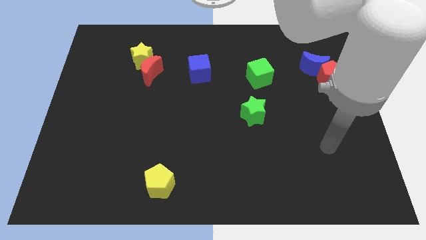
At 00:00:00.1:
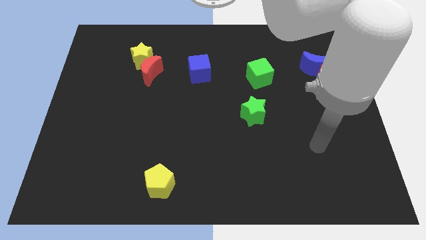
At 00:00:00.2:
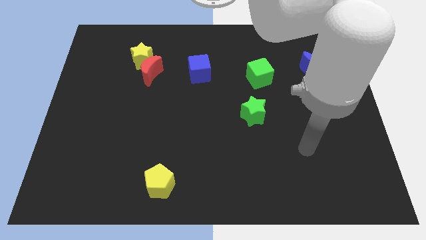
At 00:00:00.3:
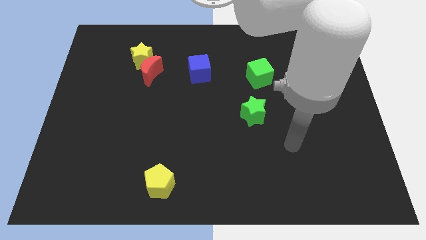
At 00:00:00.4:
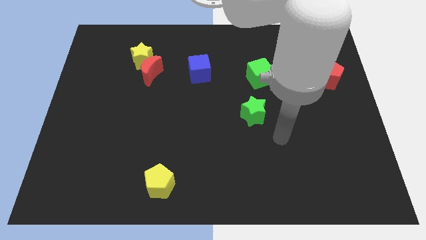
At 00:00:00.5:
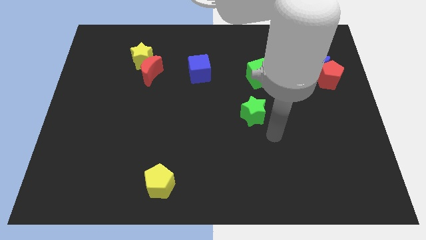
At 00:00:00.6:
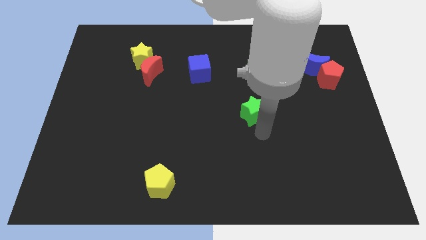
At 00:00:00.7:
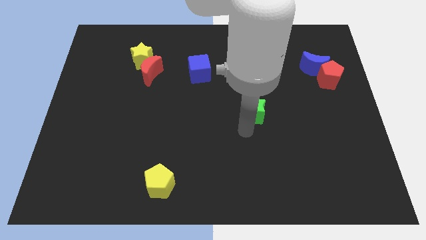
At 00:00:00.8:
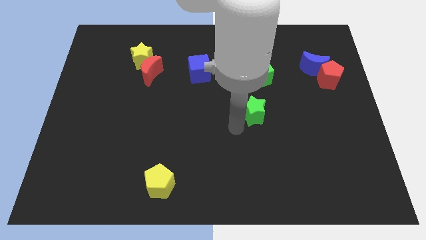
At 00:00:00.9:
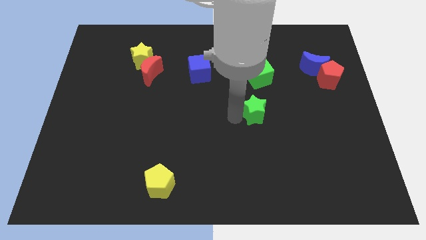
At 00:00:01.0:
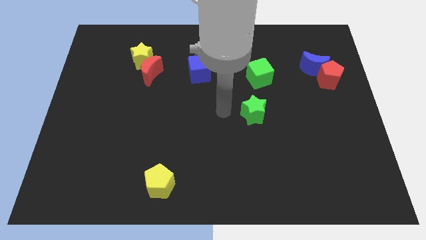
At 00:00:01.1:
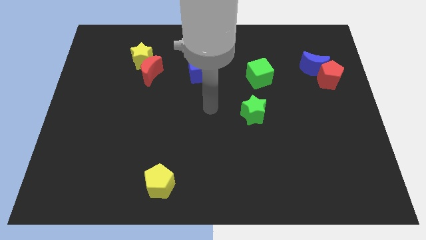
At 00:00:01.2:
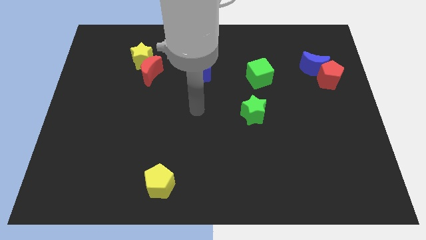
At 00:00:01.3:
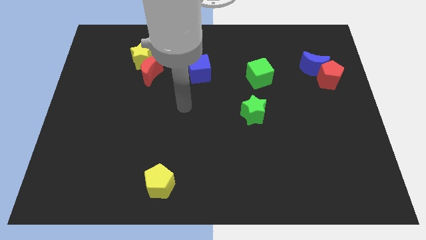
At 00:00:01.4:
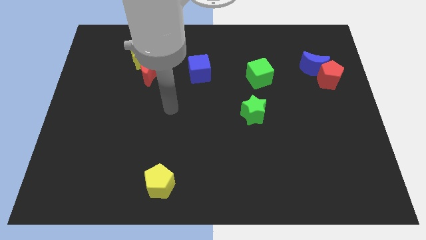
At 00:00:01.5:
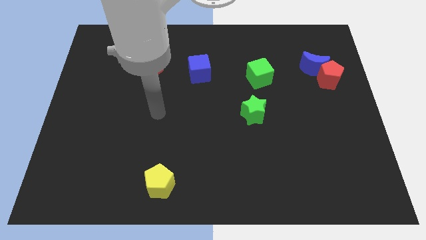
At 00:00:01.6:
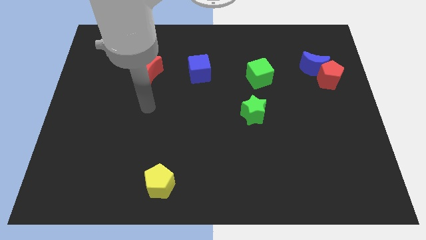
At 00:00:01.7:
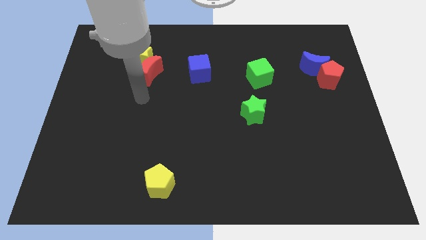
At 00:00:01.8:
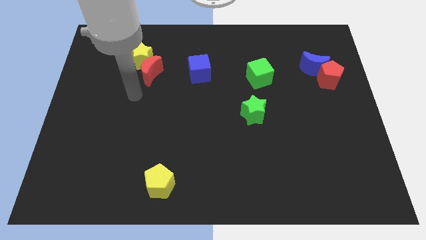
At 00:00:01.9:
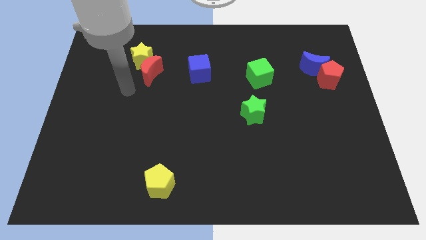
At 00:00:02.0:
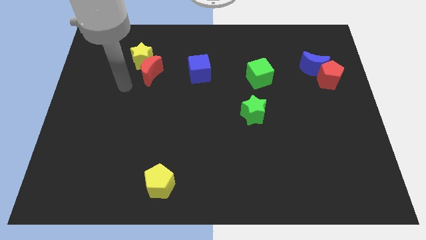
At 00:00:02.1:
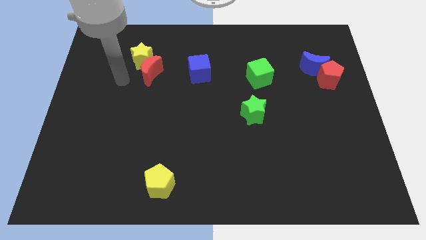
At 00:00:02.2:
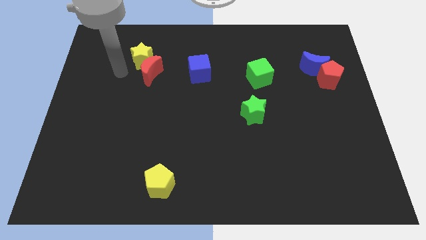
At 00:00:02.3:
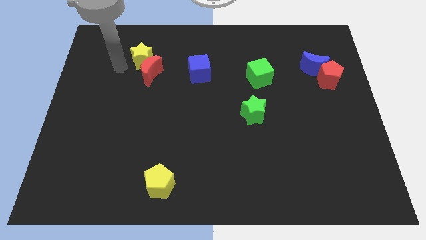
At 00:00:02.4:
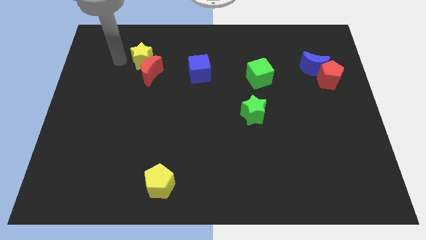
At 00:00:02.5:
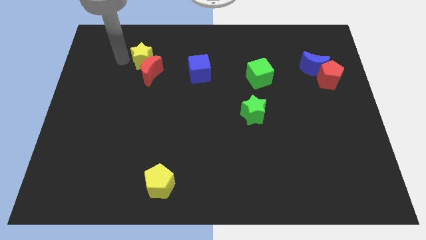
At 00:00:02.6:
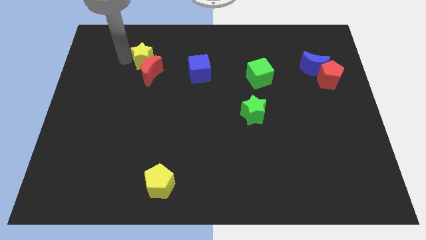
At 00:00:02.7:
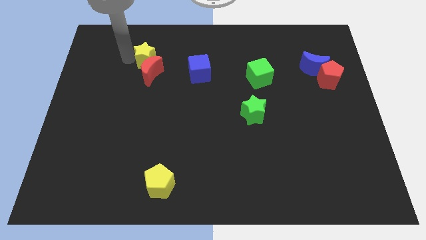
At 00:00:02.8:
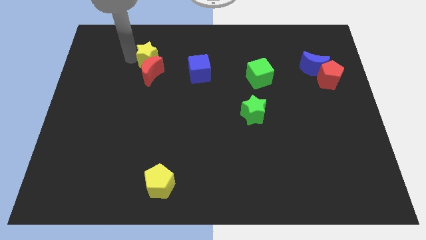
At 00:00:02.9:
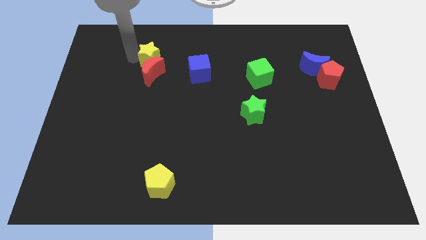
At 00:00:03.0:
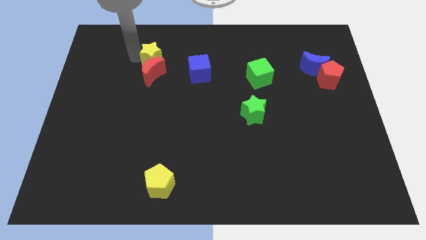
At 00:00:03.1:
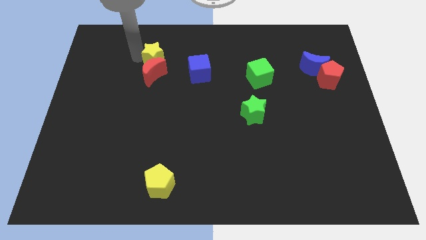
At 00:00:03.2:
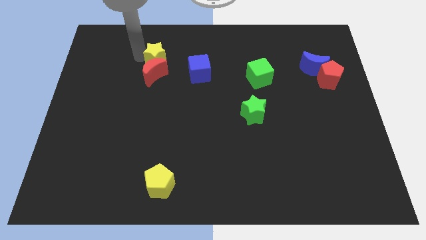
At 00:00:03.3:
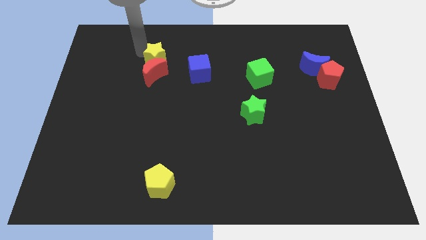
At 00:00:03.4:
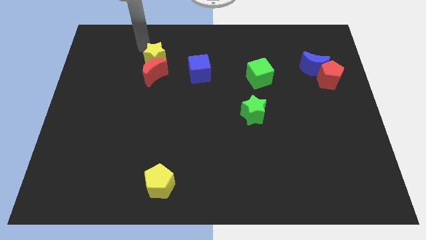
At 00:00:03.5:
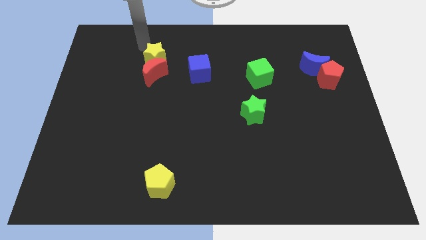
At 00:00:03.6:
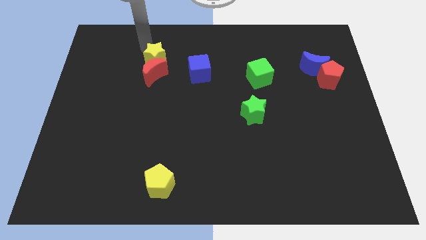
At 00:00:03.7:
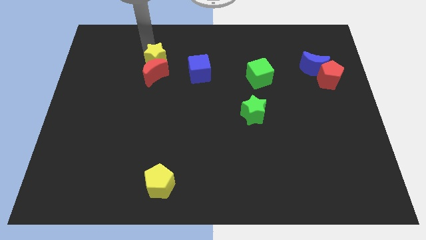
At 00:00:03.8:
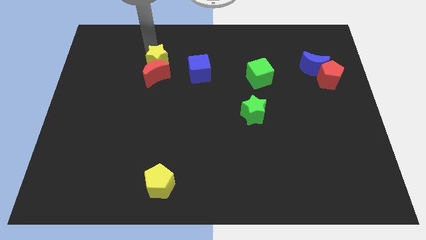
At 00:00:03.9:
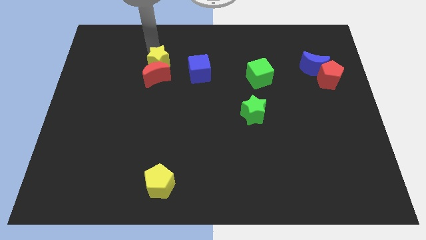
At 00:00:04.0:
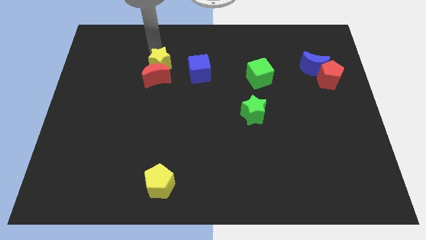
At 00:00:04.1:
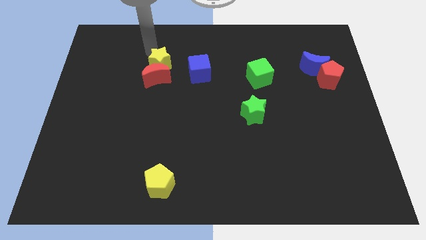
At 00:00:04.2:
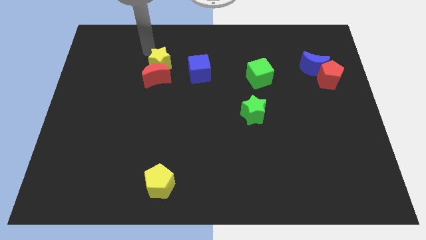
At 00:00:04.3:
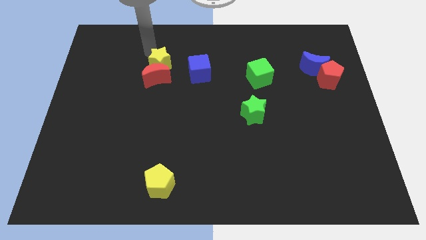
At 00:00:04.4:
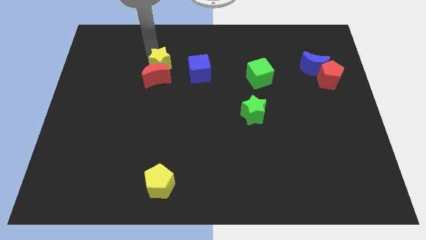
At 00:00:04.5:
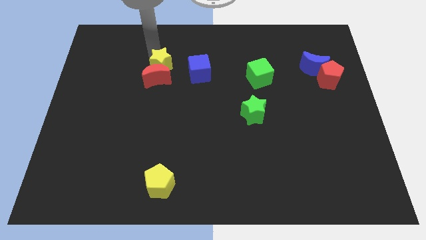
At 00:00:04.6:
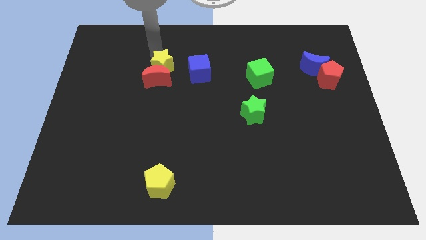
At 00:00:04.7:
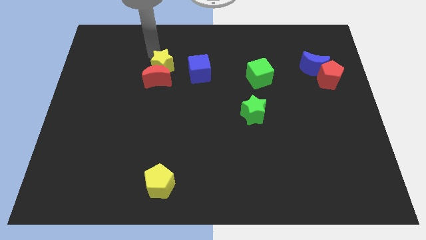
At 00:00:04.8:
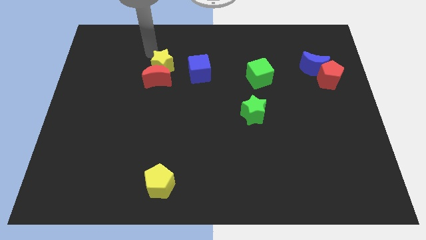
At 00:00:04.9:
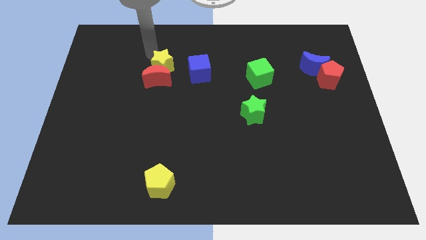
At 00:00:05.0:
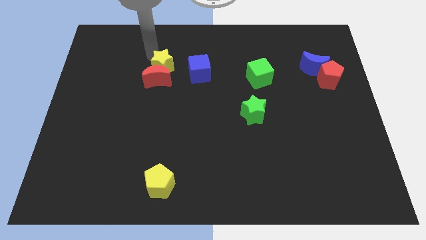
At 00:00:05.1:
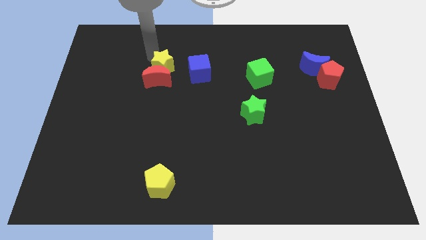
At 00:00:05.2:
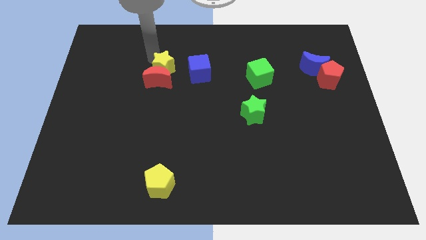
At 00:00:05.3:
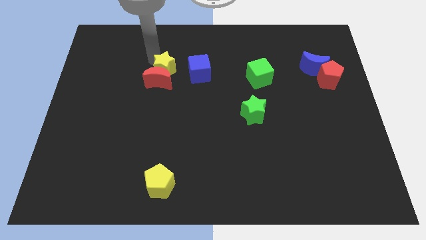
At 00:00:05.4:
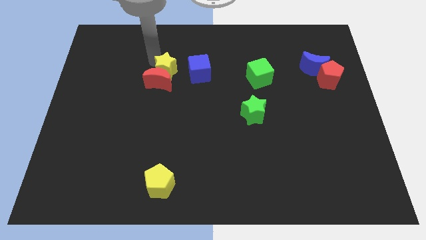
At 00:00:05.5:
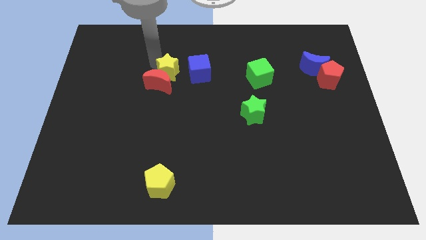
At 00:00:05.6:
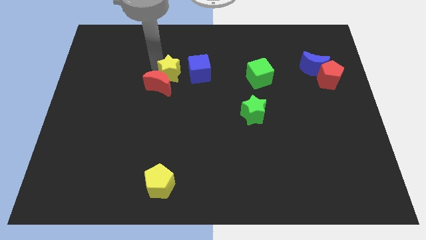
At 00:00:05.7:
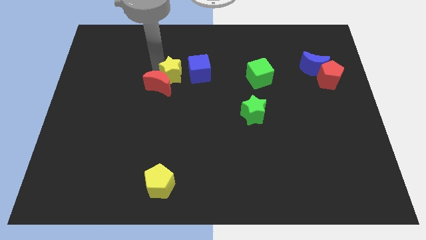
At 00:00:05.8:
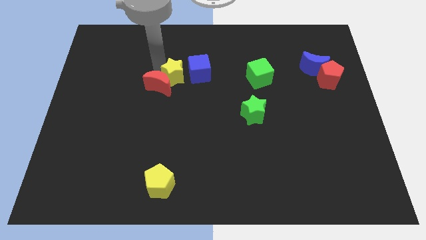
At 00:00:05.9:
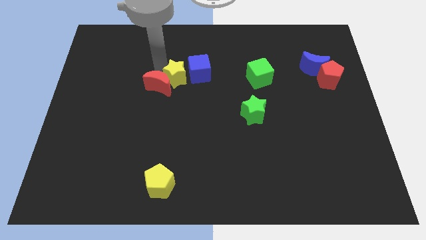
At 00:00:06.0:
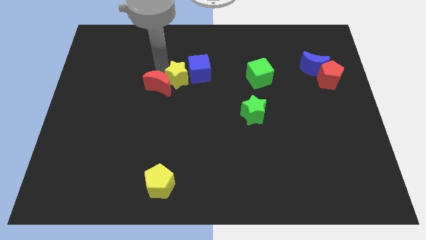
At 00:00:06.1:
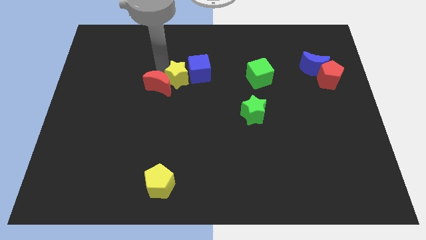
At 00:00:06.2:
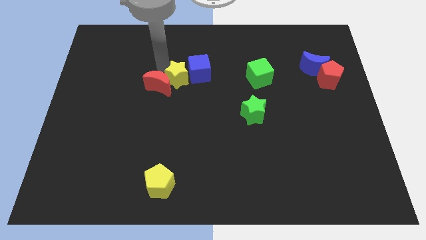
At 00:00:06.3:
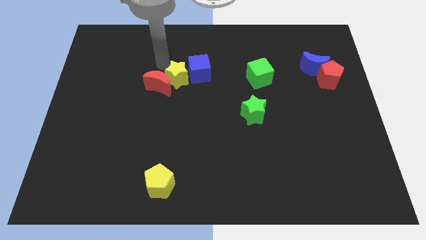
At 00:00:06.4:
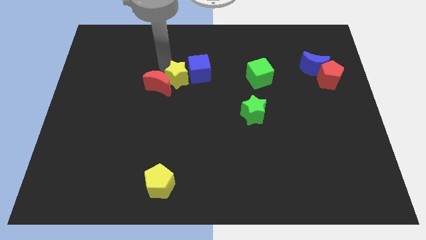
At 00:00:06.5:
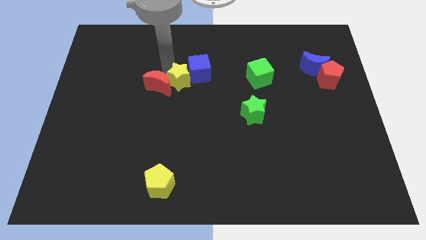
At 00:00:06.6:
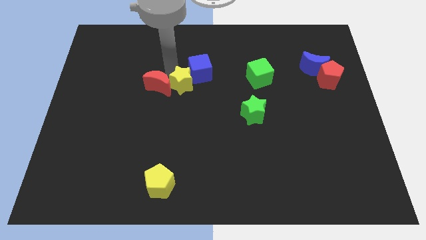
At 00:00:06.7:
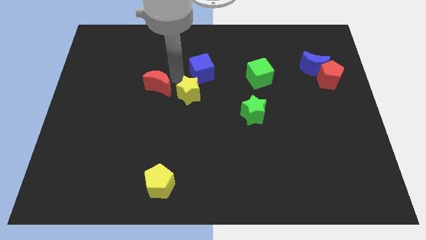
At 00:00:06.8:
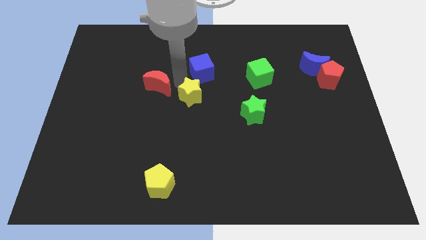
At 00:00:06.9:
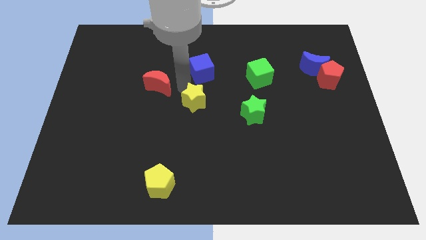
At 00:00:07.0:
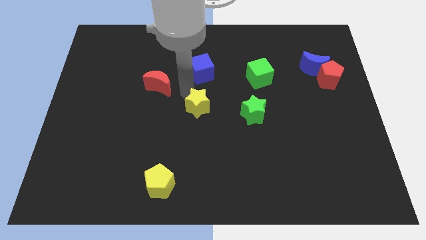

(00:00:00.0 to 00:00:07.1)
push the yellow star downwards and to the right diagonally

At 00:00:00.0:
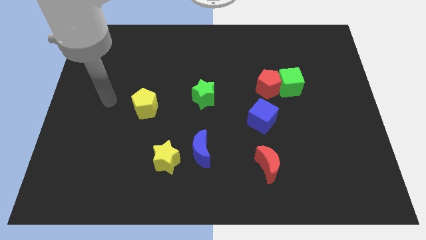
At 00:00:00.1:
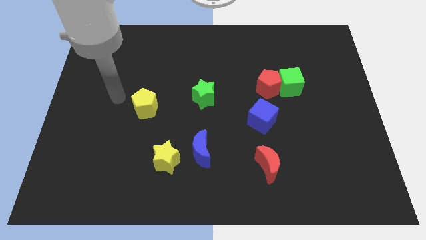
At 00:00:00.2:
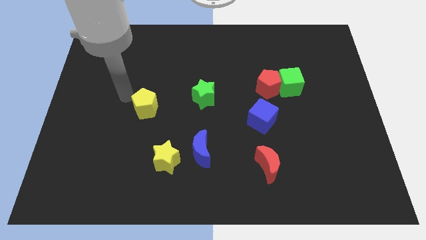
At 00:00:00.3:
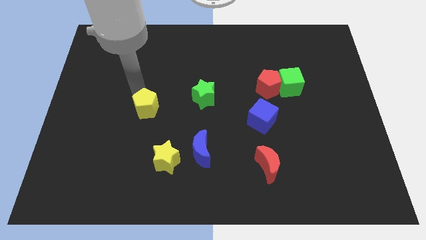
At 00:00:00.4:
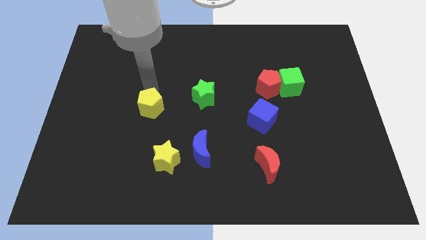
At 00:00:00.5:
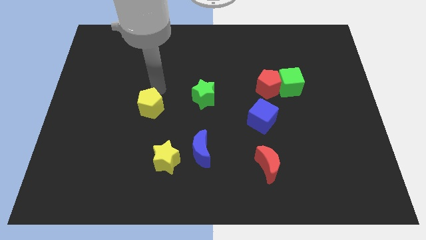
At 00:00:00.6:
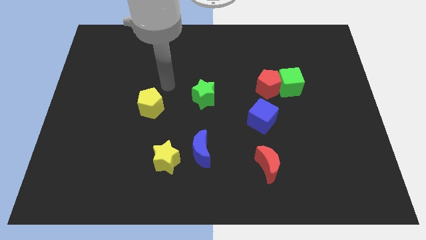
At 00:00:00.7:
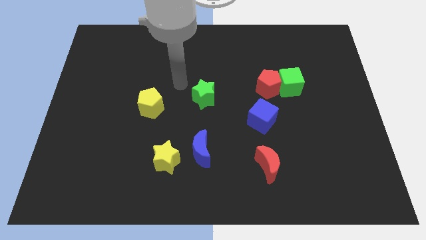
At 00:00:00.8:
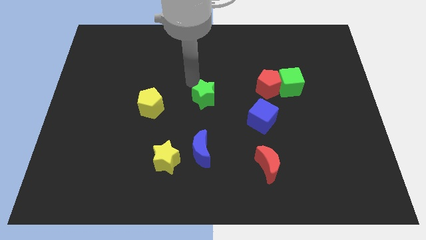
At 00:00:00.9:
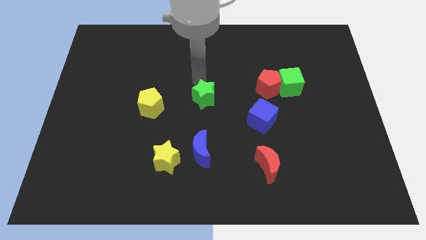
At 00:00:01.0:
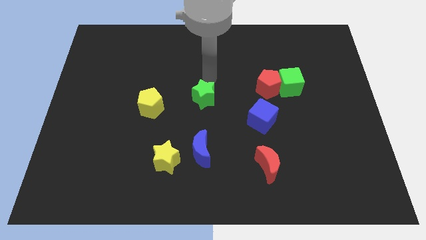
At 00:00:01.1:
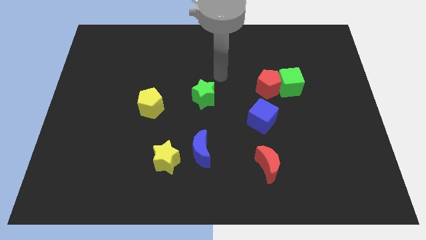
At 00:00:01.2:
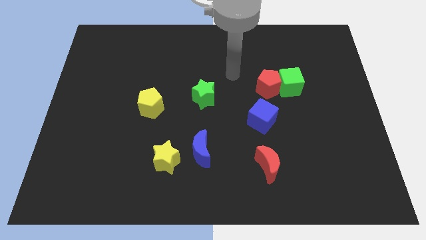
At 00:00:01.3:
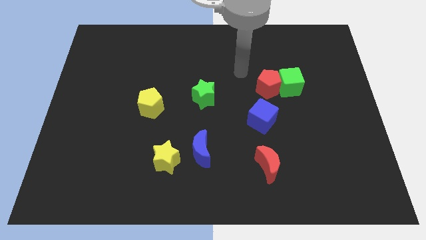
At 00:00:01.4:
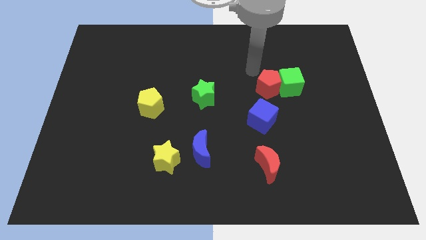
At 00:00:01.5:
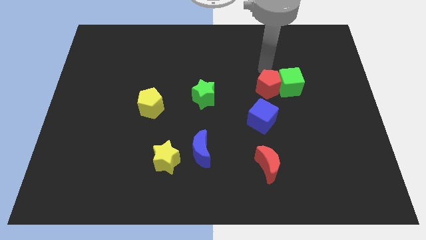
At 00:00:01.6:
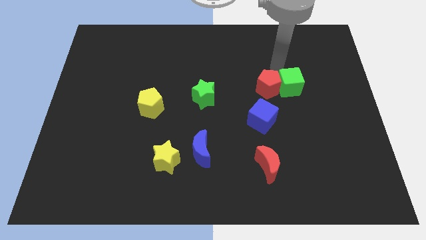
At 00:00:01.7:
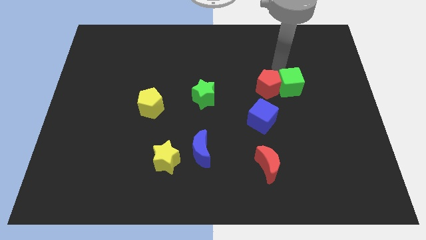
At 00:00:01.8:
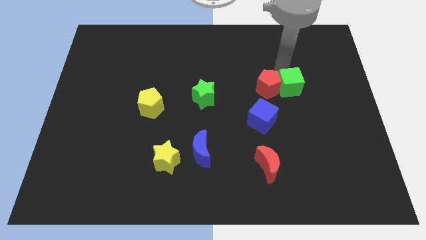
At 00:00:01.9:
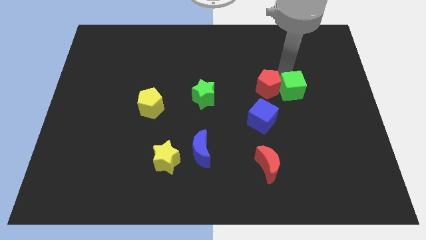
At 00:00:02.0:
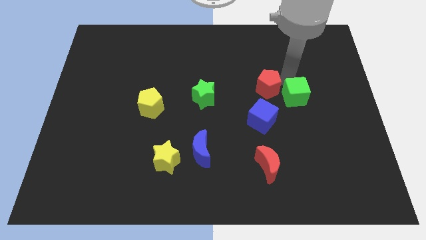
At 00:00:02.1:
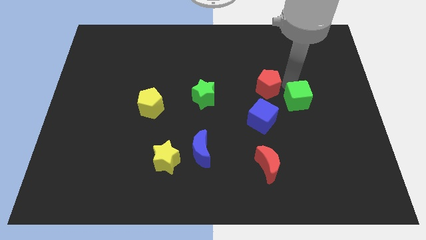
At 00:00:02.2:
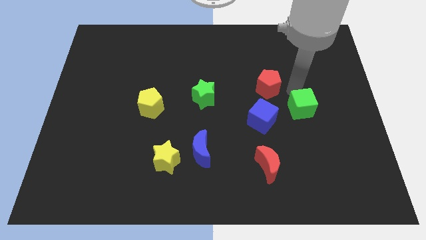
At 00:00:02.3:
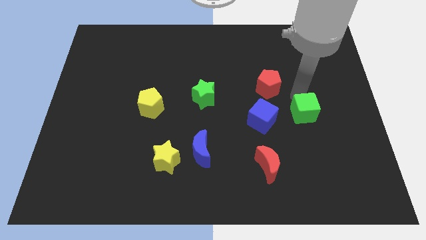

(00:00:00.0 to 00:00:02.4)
move the green cube a little down
